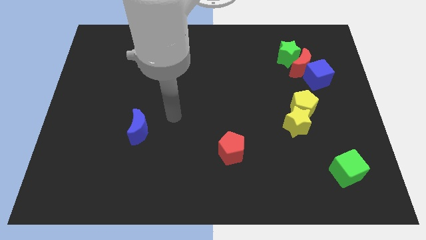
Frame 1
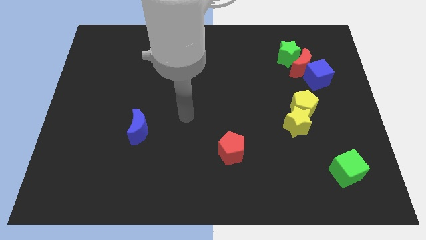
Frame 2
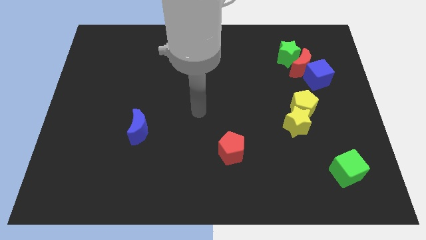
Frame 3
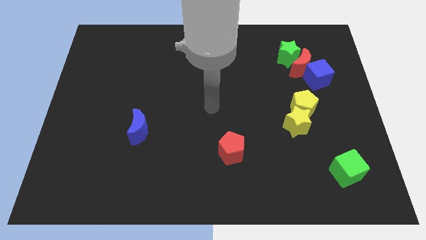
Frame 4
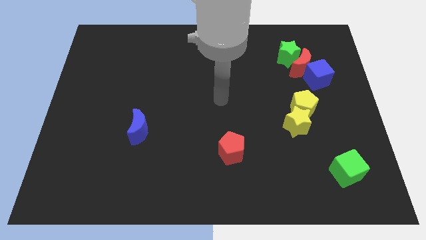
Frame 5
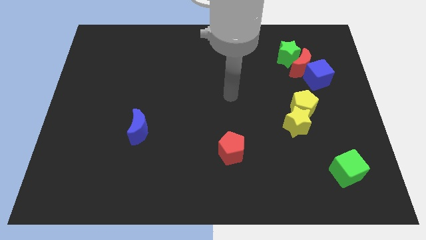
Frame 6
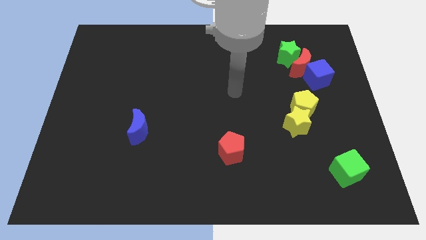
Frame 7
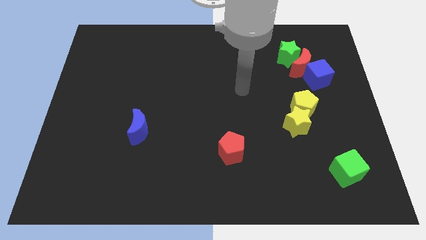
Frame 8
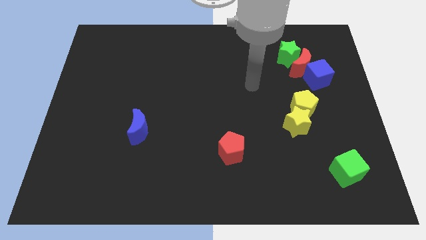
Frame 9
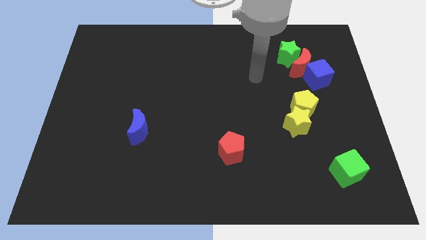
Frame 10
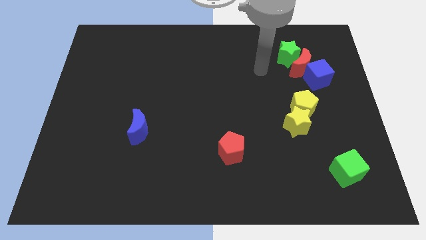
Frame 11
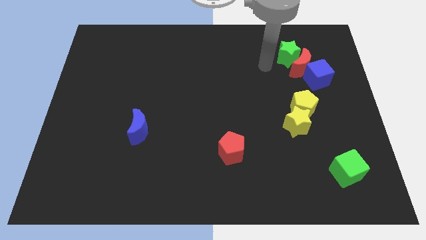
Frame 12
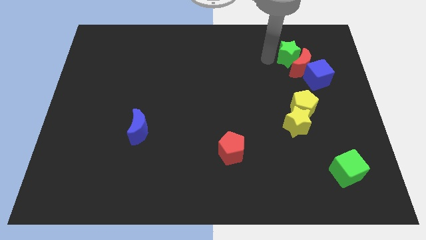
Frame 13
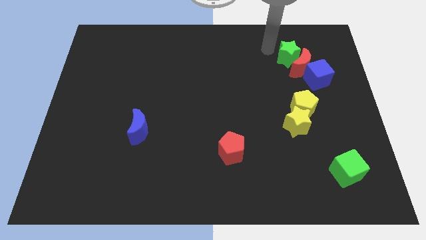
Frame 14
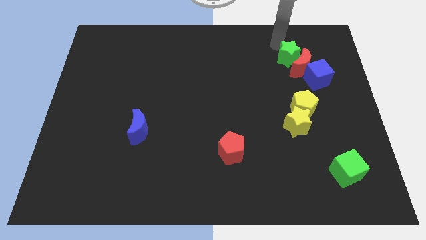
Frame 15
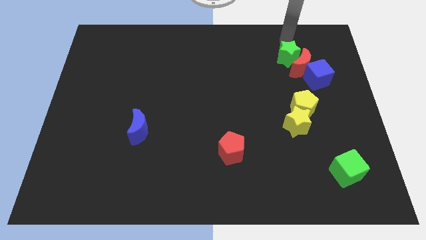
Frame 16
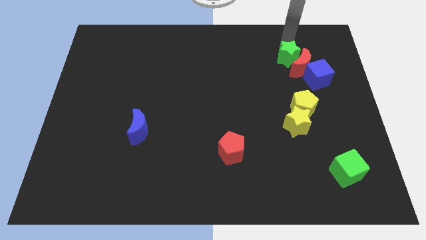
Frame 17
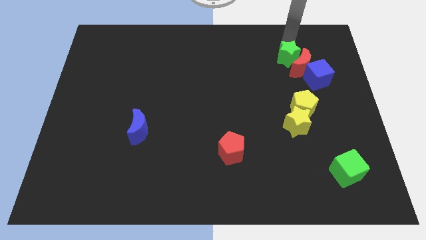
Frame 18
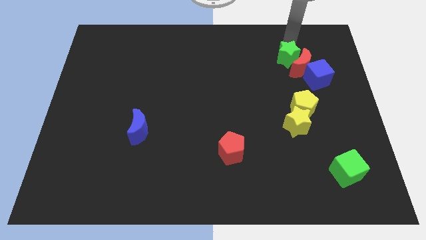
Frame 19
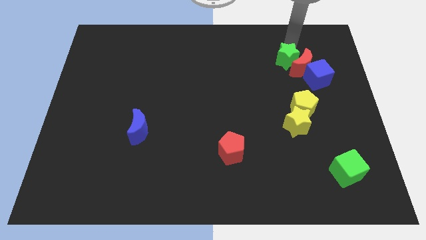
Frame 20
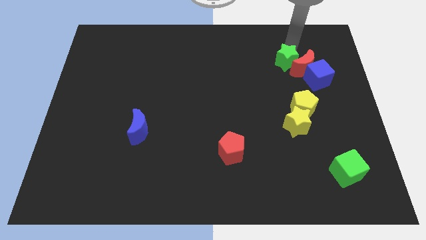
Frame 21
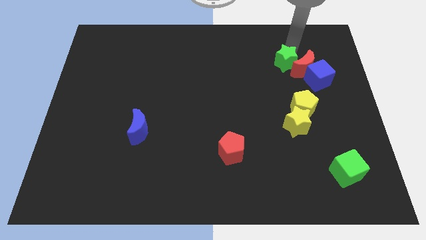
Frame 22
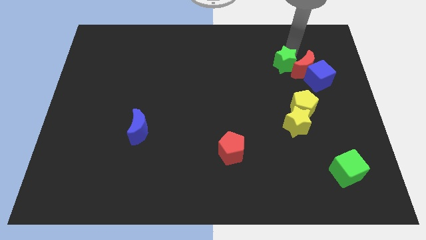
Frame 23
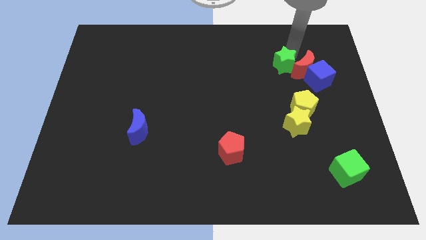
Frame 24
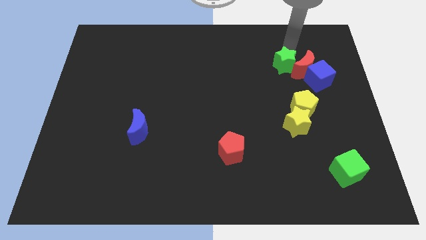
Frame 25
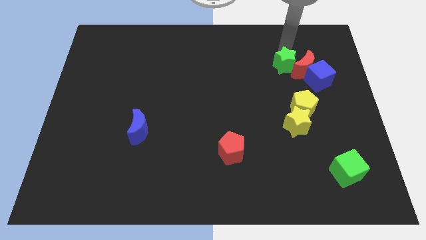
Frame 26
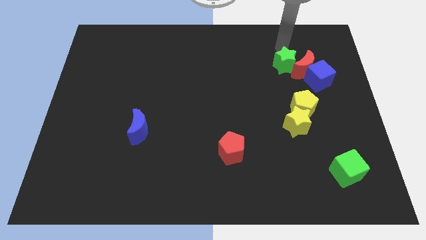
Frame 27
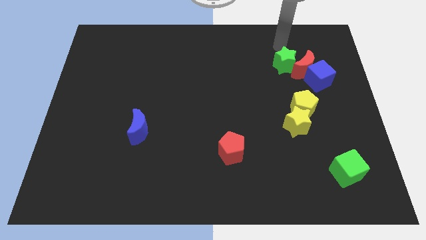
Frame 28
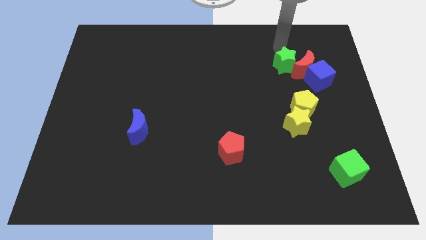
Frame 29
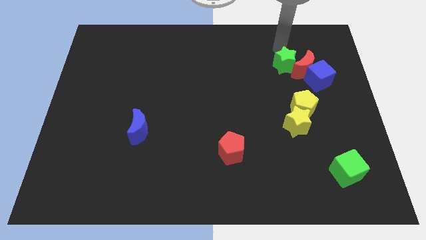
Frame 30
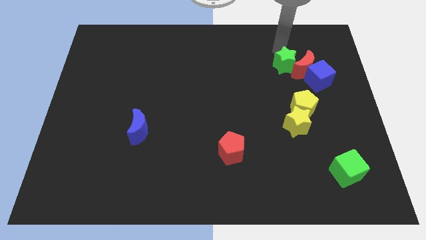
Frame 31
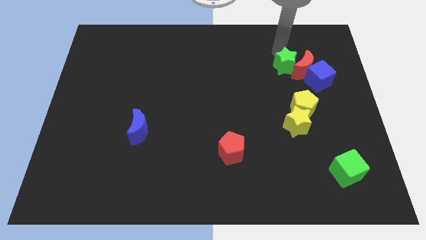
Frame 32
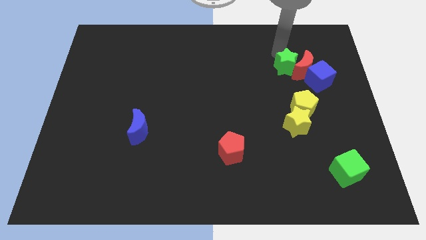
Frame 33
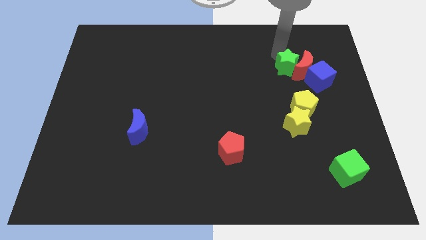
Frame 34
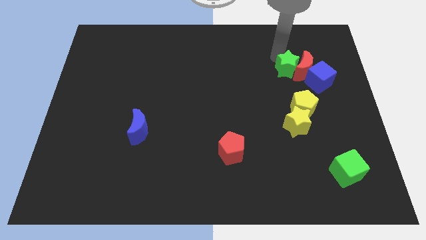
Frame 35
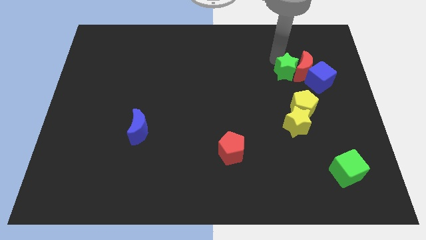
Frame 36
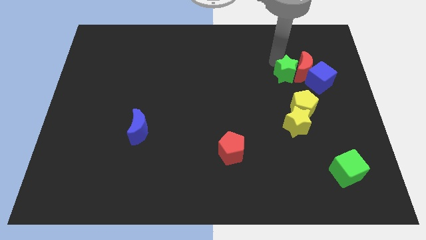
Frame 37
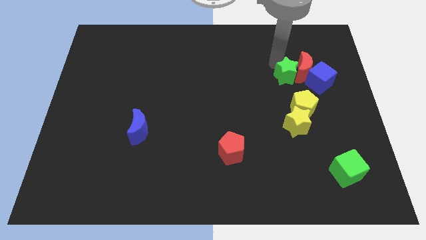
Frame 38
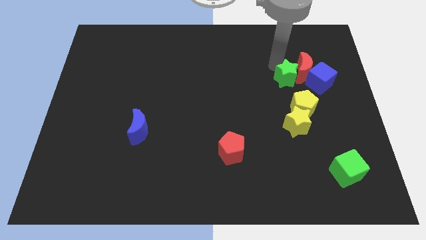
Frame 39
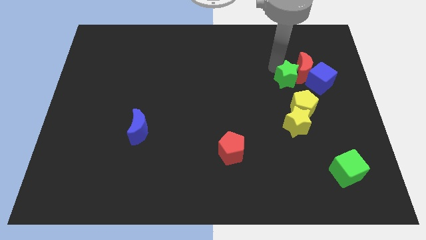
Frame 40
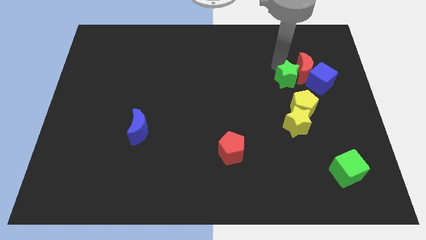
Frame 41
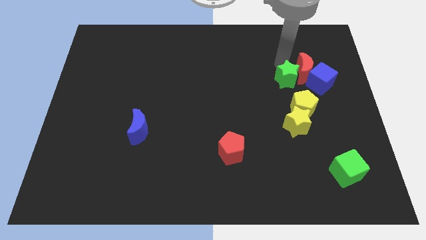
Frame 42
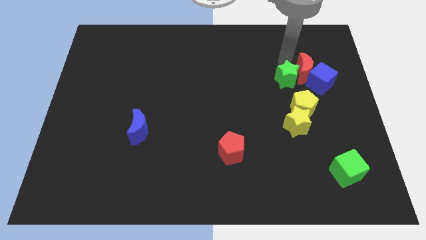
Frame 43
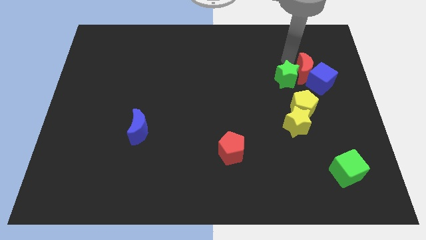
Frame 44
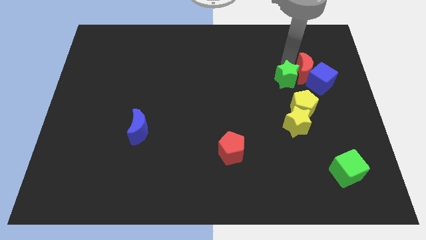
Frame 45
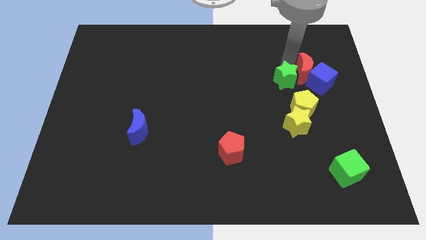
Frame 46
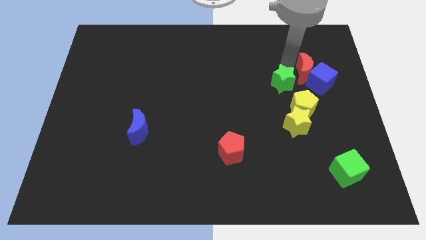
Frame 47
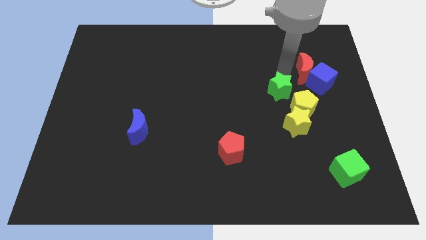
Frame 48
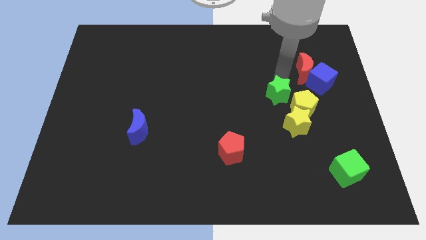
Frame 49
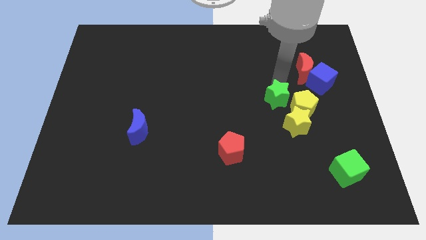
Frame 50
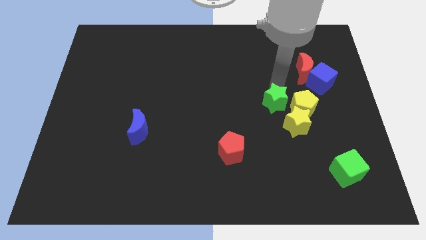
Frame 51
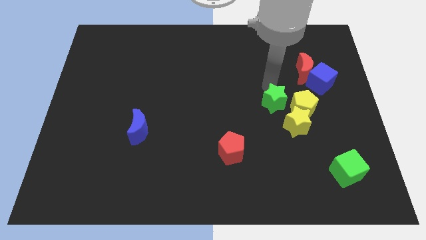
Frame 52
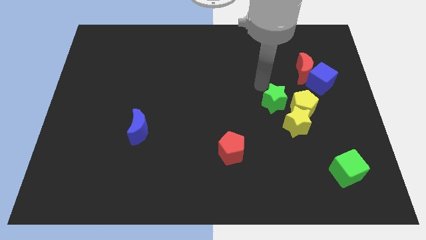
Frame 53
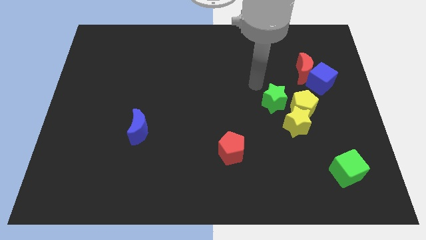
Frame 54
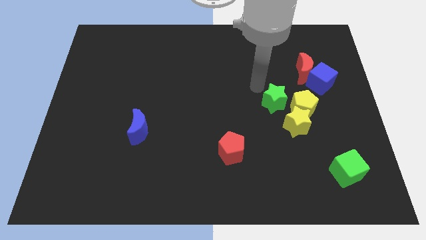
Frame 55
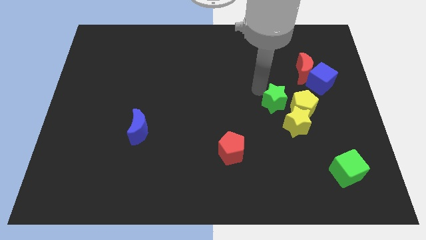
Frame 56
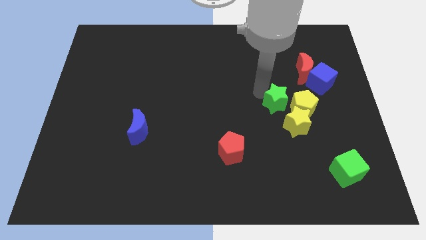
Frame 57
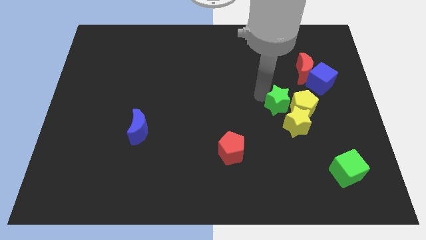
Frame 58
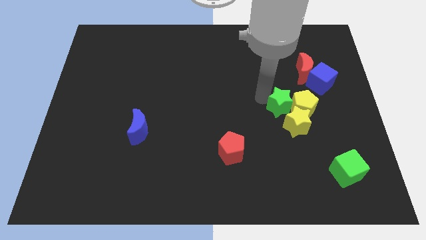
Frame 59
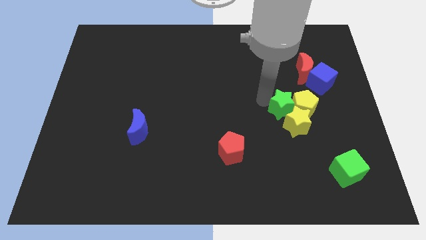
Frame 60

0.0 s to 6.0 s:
push the green star to the yellow star

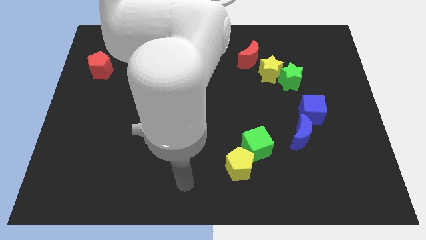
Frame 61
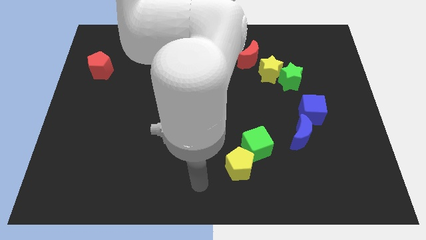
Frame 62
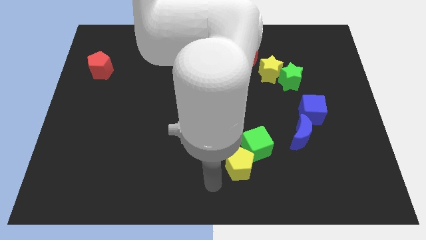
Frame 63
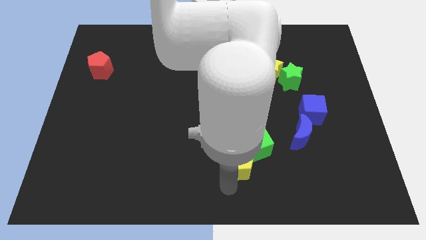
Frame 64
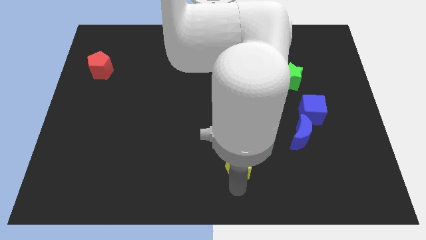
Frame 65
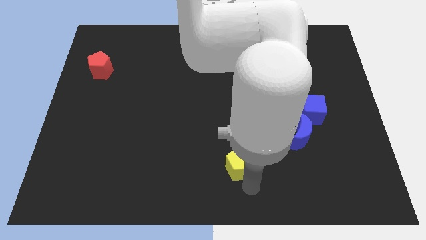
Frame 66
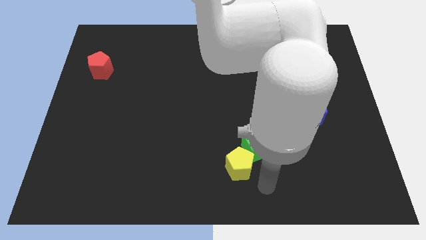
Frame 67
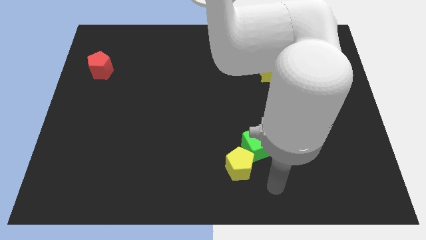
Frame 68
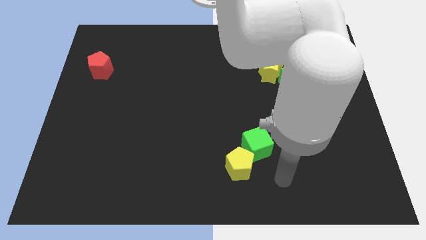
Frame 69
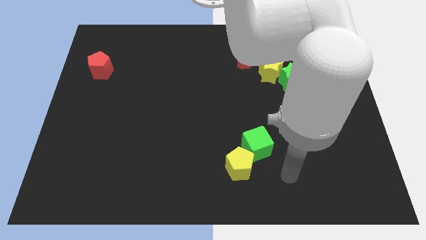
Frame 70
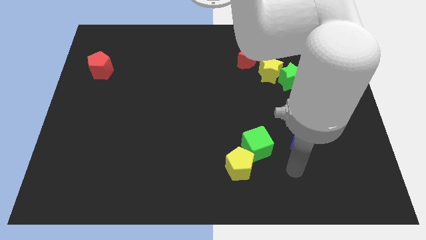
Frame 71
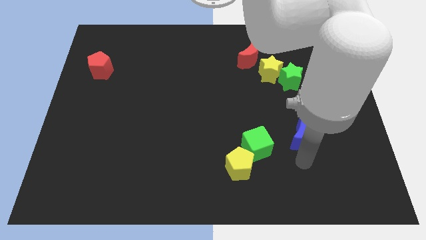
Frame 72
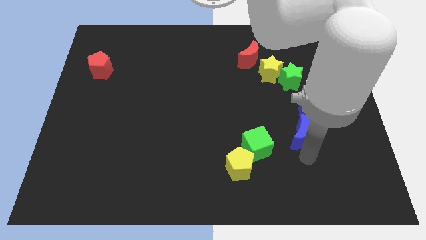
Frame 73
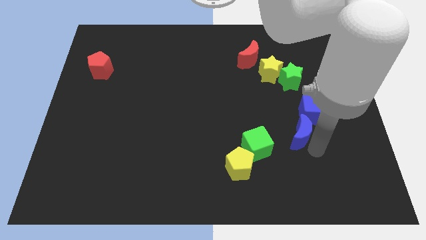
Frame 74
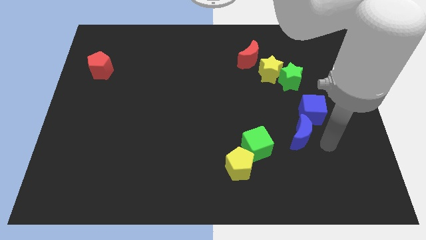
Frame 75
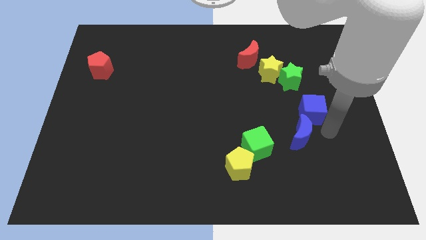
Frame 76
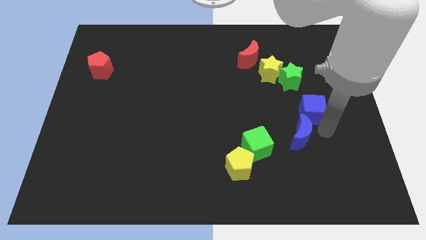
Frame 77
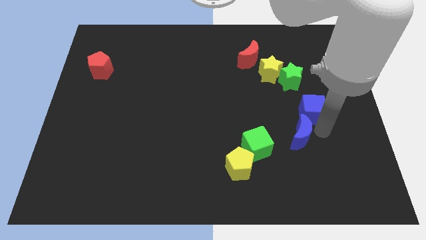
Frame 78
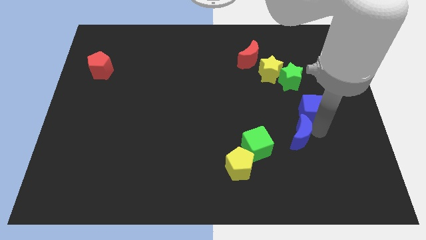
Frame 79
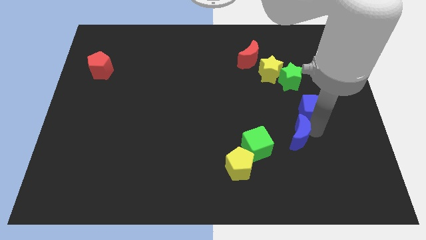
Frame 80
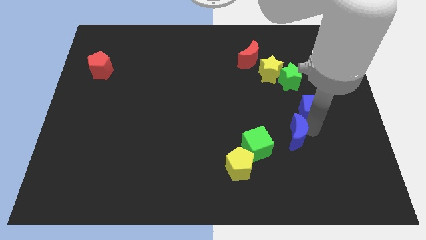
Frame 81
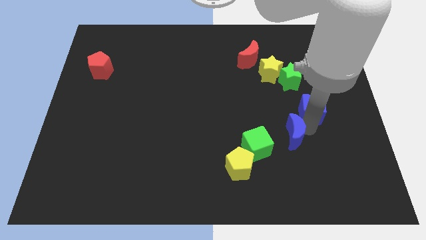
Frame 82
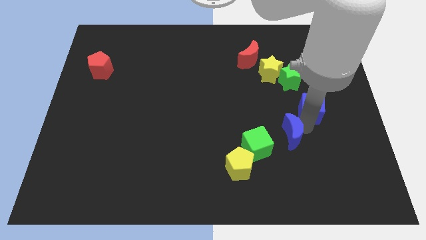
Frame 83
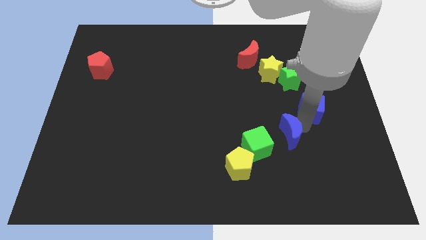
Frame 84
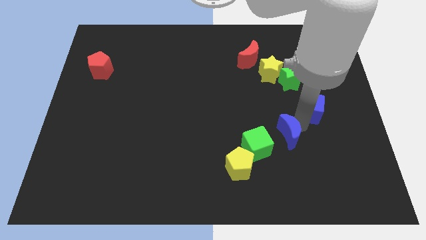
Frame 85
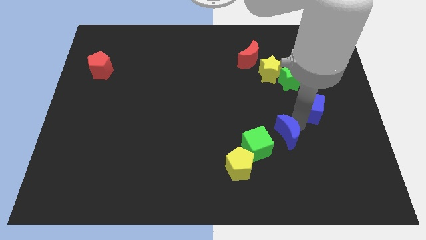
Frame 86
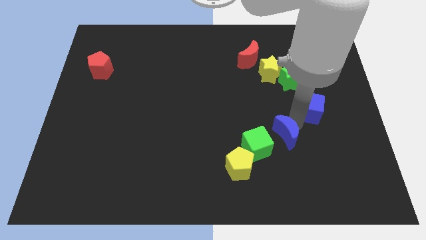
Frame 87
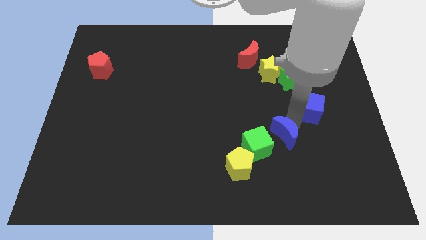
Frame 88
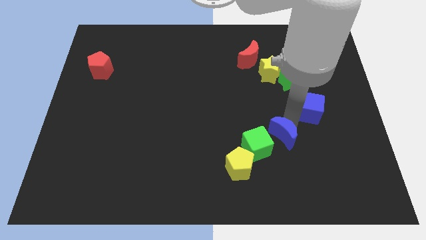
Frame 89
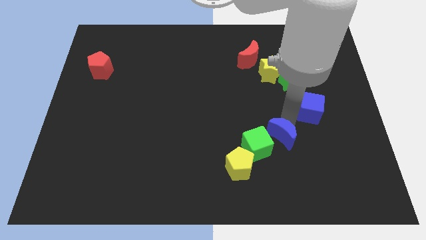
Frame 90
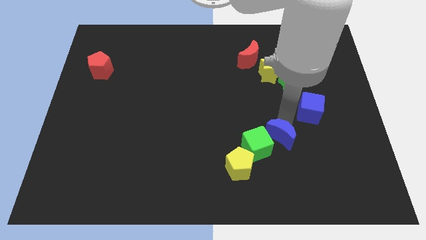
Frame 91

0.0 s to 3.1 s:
move the blue moon towards the green cube
